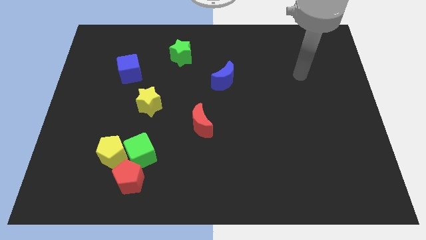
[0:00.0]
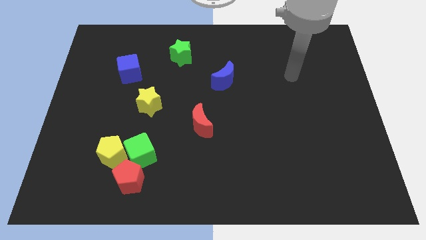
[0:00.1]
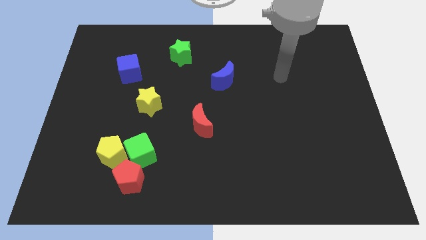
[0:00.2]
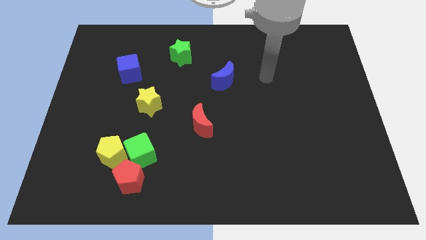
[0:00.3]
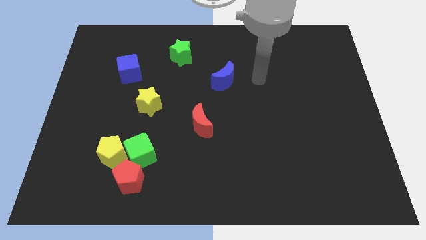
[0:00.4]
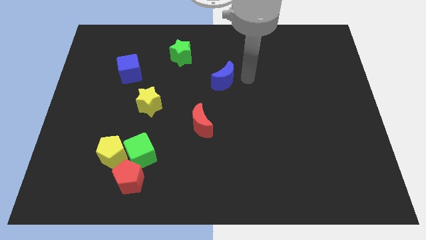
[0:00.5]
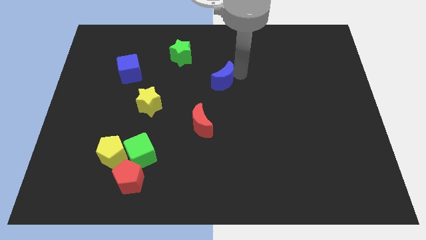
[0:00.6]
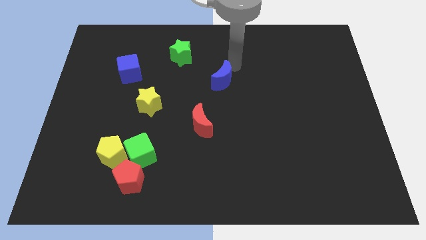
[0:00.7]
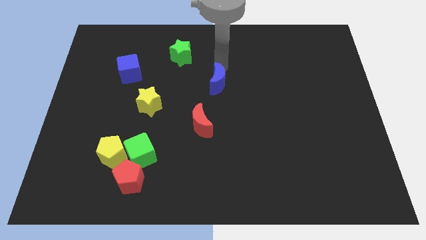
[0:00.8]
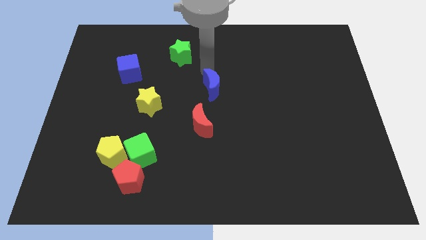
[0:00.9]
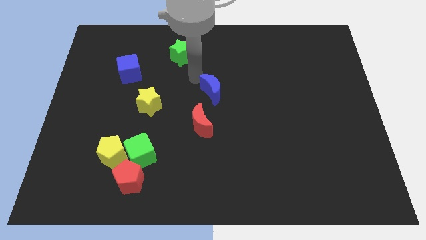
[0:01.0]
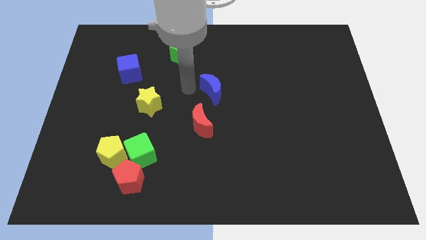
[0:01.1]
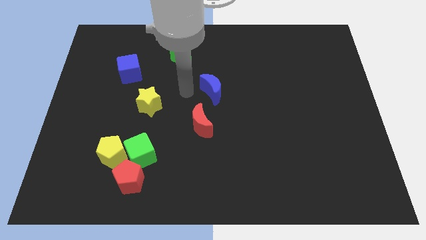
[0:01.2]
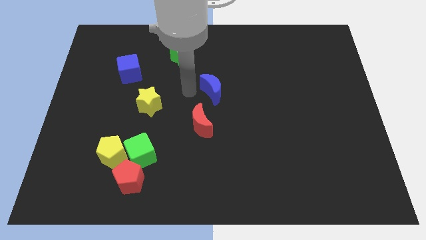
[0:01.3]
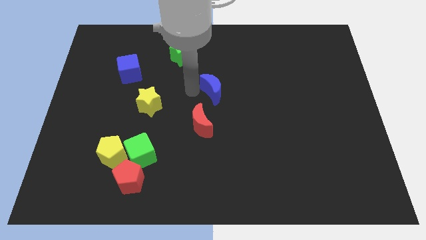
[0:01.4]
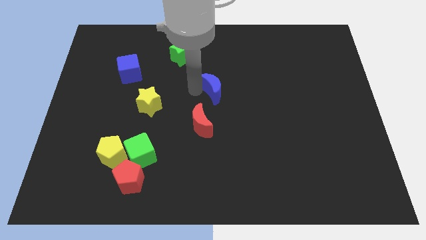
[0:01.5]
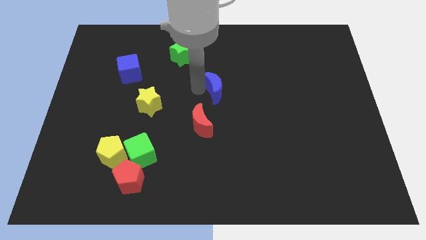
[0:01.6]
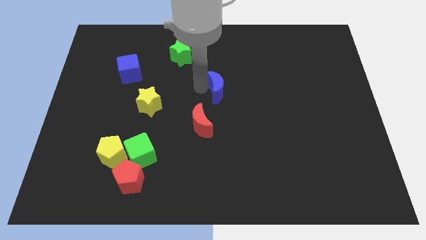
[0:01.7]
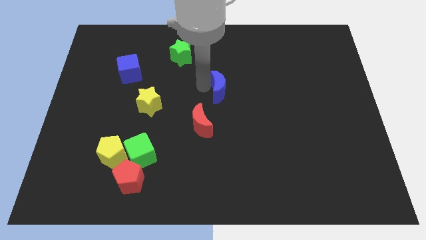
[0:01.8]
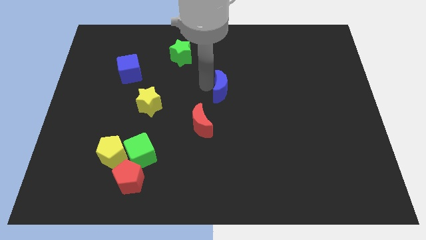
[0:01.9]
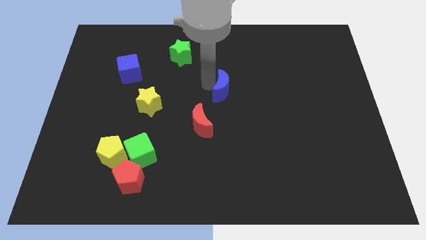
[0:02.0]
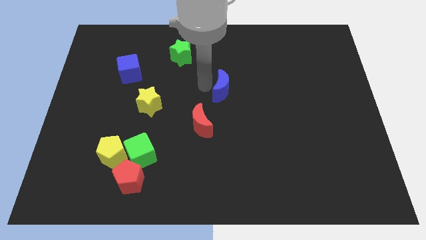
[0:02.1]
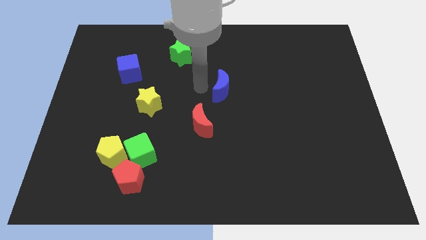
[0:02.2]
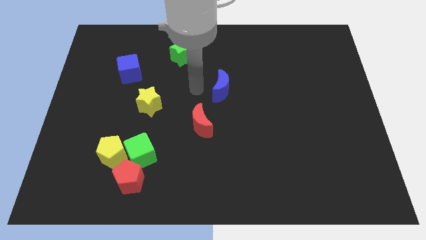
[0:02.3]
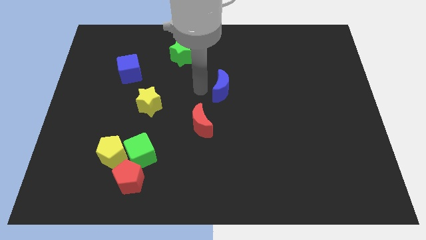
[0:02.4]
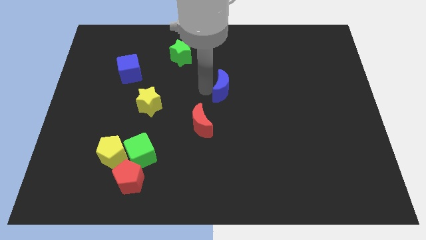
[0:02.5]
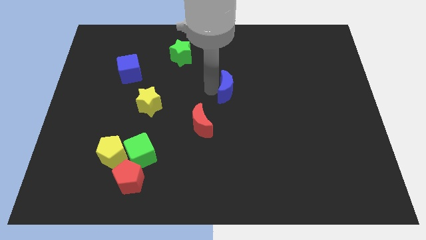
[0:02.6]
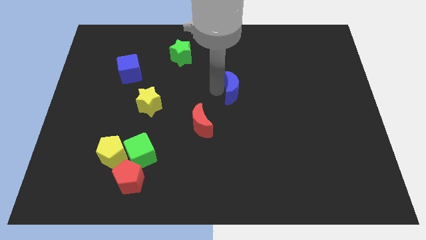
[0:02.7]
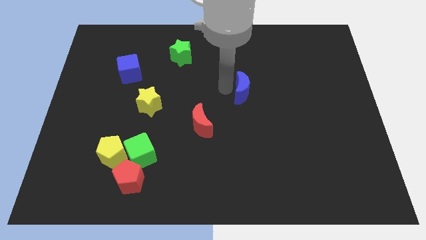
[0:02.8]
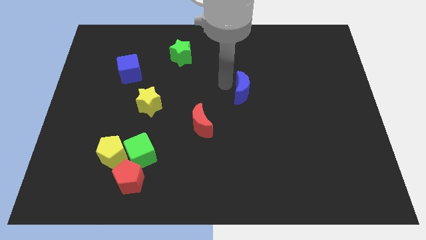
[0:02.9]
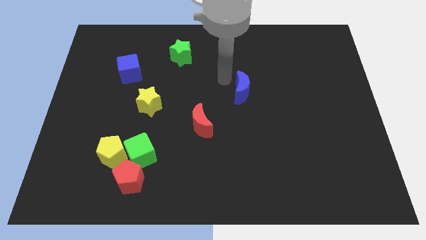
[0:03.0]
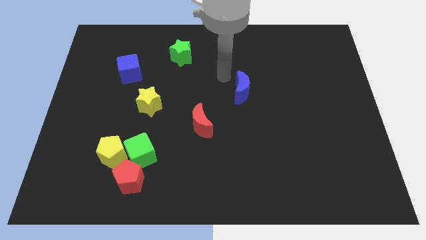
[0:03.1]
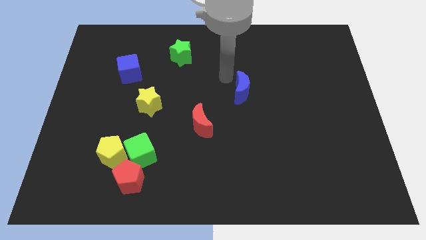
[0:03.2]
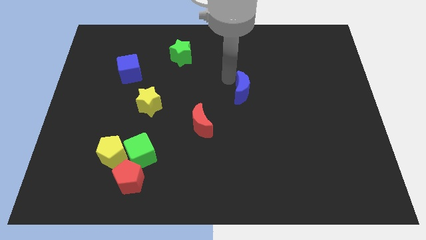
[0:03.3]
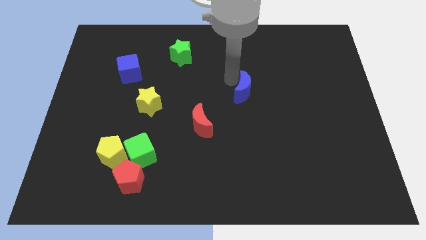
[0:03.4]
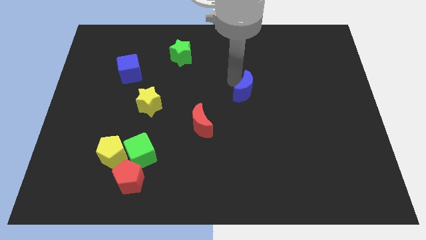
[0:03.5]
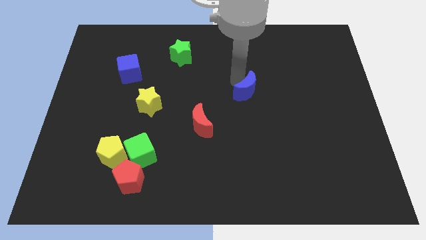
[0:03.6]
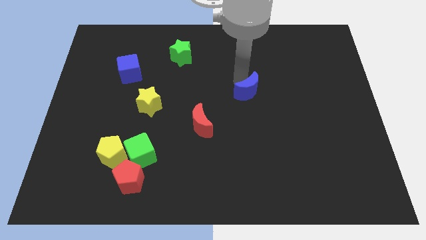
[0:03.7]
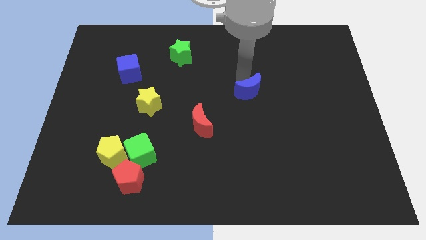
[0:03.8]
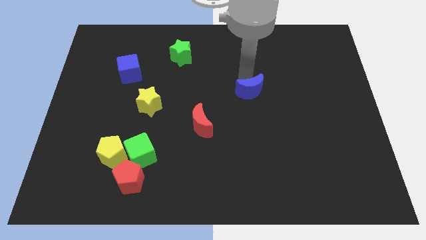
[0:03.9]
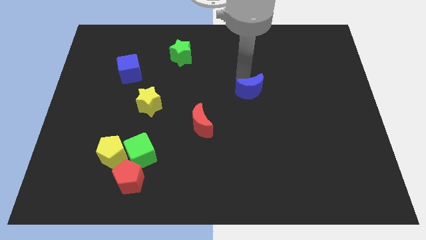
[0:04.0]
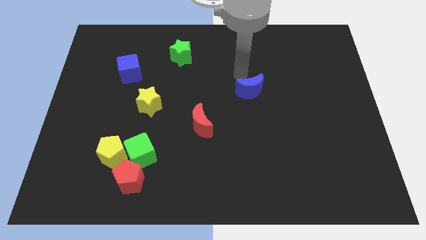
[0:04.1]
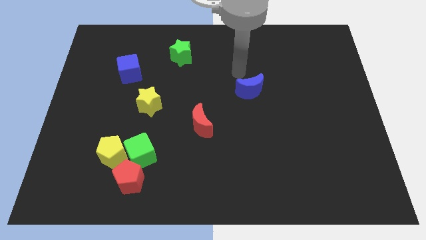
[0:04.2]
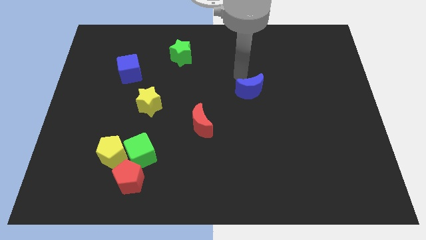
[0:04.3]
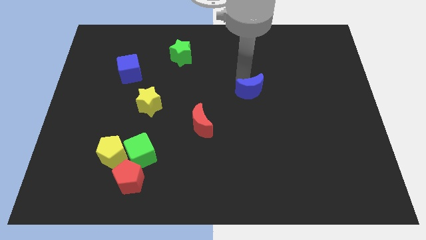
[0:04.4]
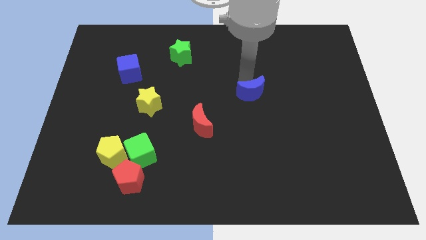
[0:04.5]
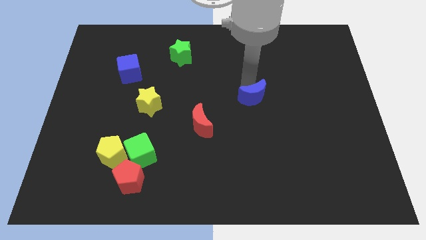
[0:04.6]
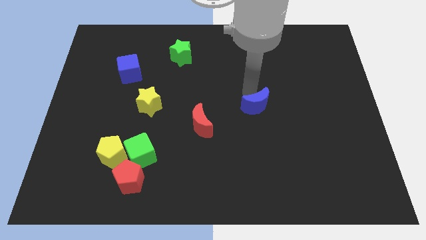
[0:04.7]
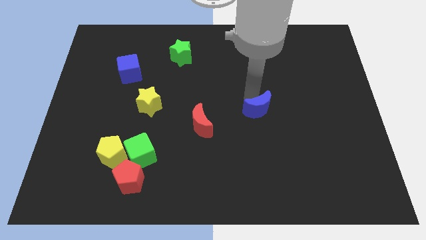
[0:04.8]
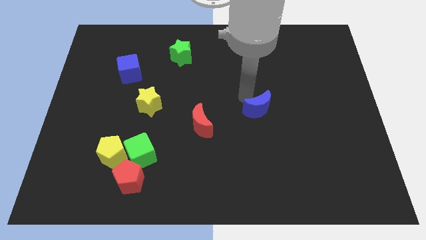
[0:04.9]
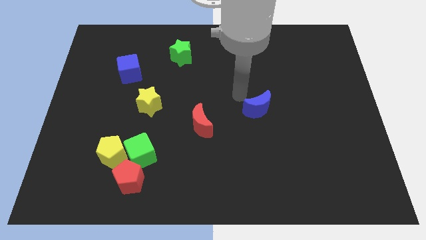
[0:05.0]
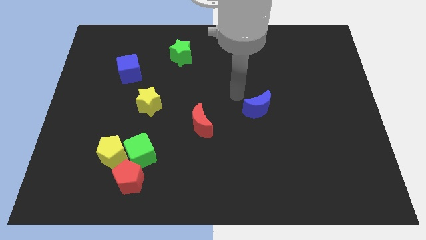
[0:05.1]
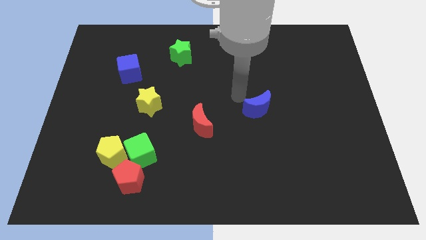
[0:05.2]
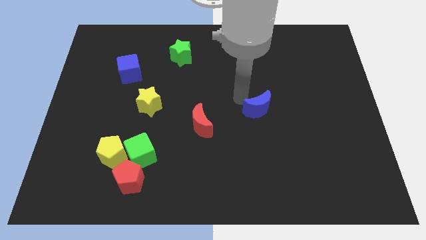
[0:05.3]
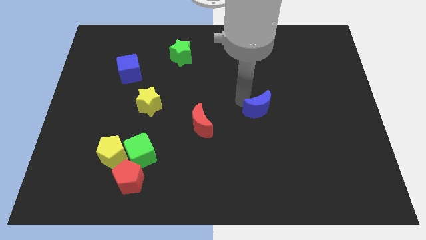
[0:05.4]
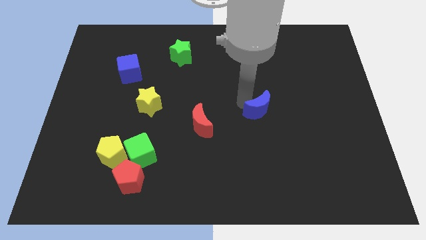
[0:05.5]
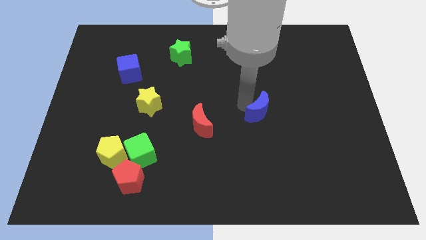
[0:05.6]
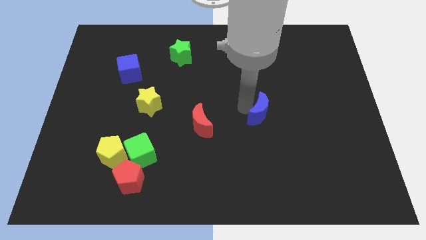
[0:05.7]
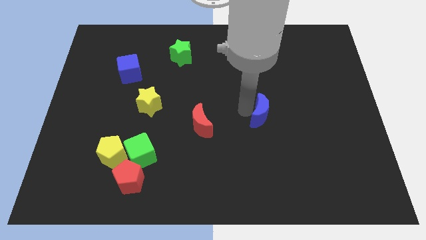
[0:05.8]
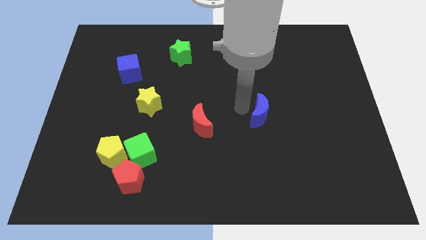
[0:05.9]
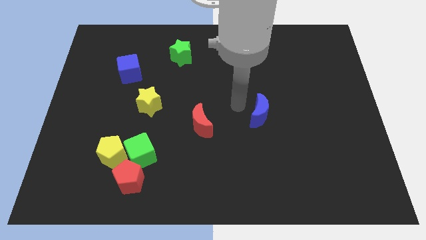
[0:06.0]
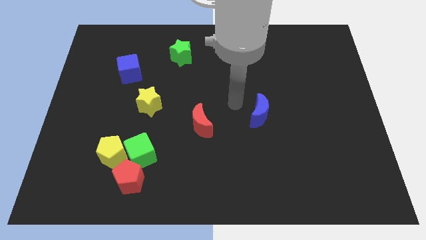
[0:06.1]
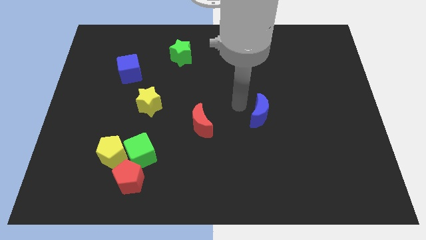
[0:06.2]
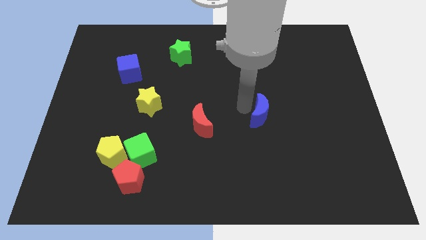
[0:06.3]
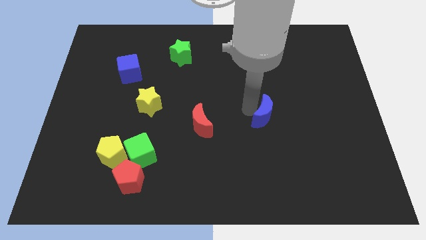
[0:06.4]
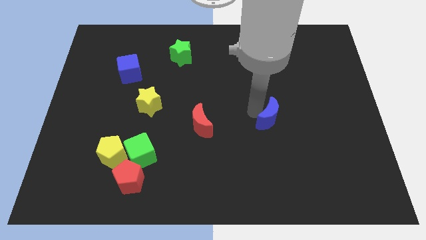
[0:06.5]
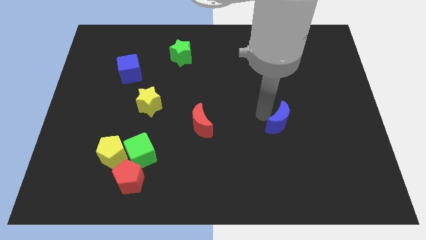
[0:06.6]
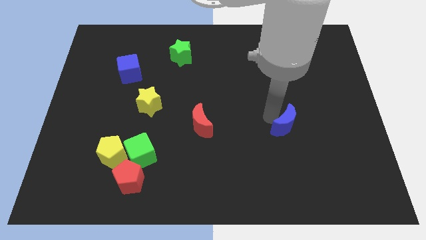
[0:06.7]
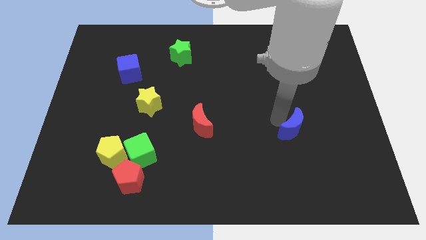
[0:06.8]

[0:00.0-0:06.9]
move the blue moon down and to the right diagonally

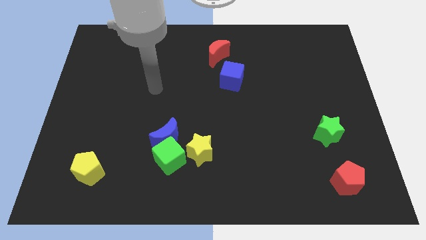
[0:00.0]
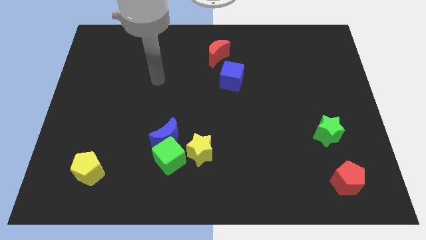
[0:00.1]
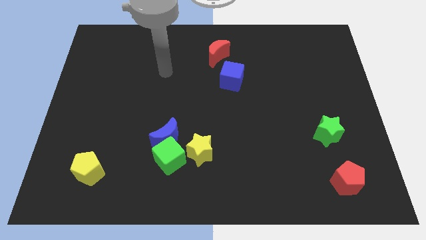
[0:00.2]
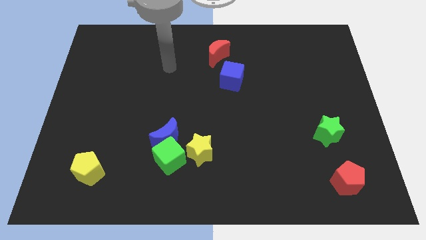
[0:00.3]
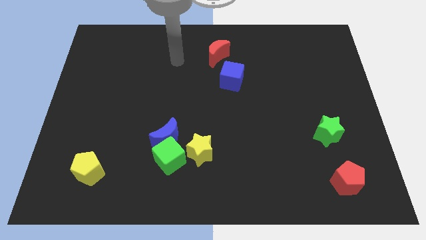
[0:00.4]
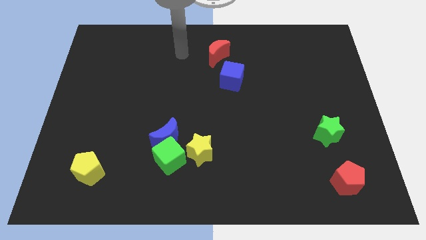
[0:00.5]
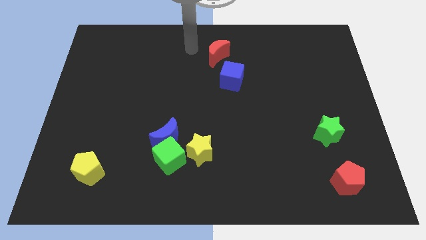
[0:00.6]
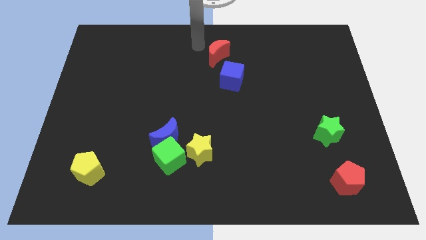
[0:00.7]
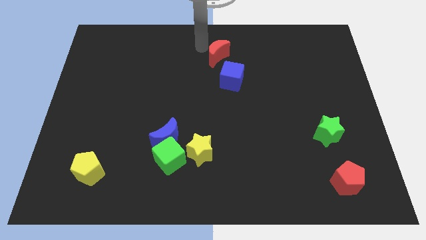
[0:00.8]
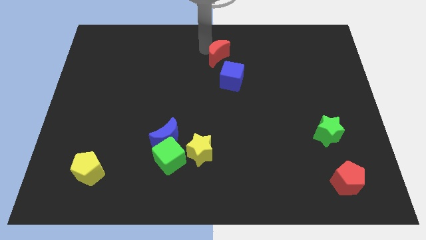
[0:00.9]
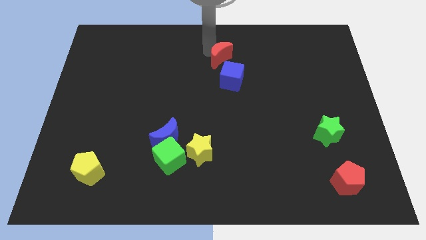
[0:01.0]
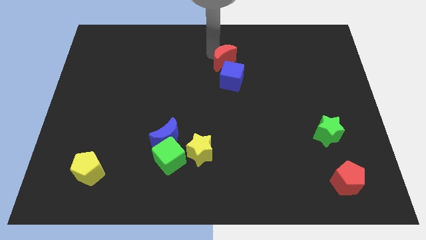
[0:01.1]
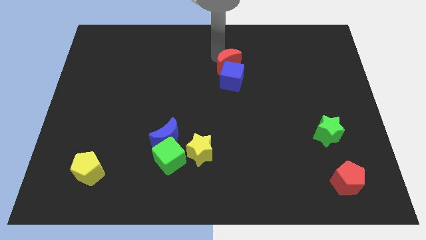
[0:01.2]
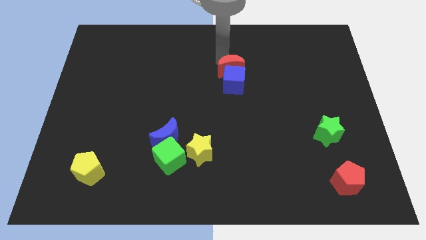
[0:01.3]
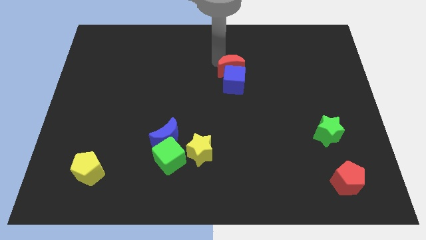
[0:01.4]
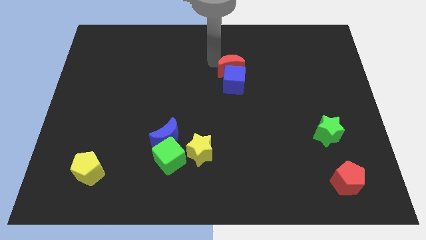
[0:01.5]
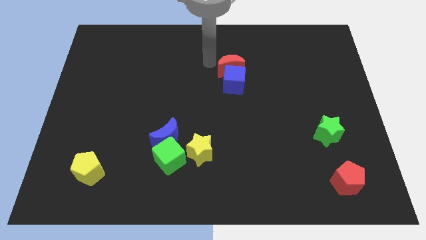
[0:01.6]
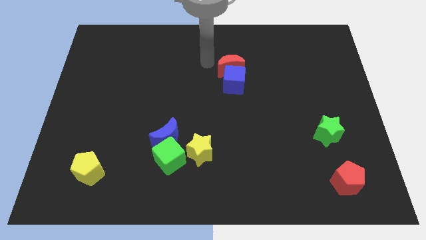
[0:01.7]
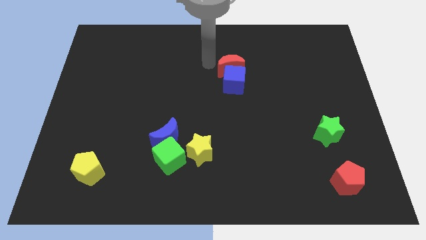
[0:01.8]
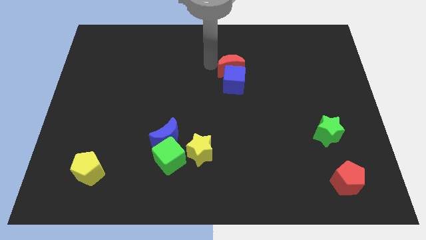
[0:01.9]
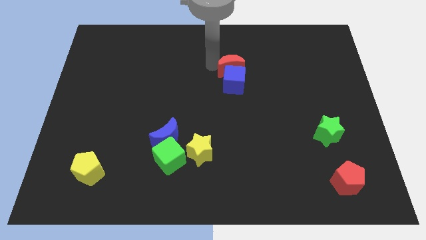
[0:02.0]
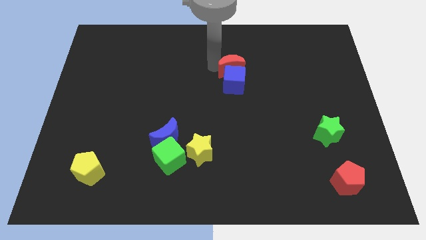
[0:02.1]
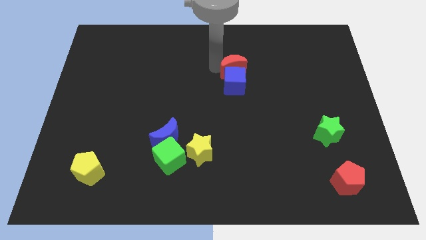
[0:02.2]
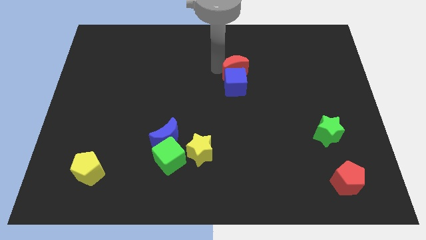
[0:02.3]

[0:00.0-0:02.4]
slightly slide the red moon downwards and right
